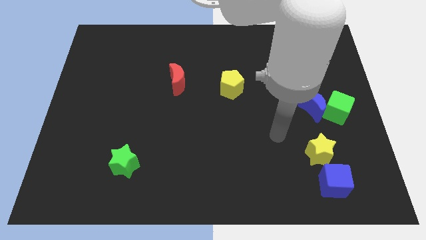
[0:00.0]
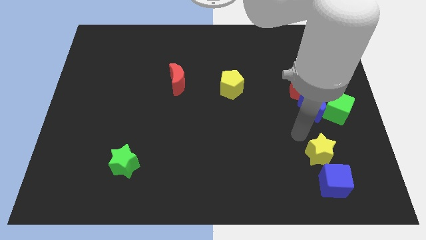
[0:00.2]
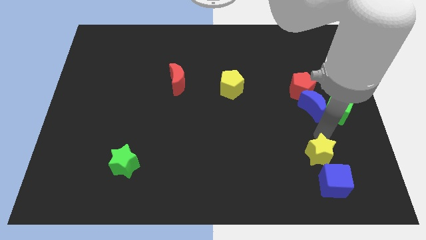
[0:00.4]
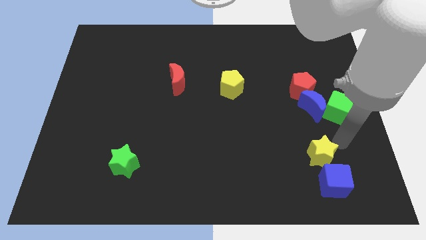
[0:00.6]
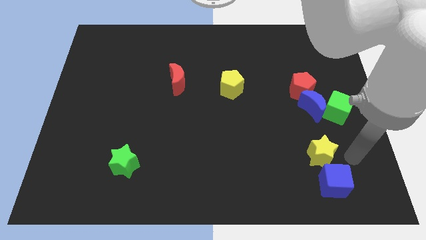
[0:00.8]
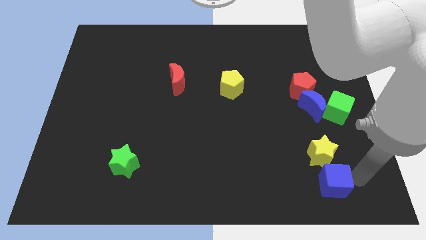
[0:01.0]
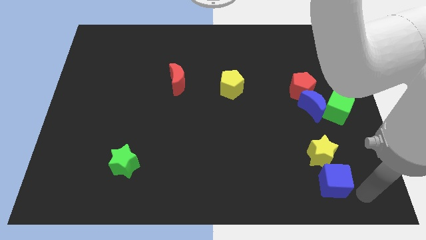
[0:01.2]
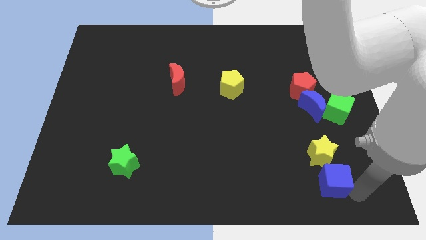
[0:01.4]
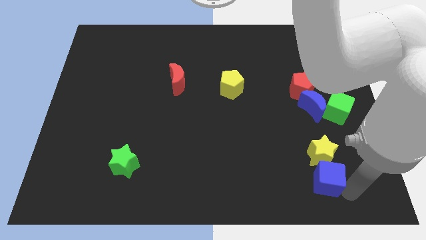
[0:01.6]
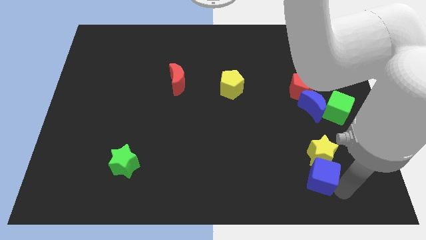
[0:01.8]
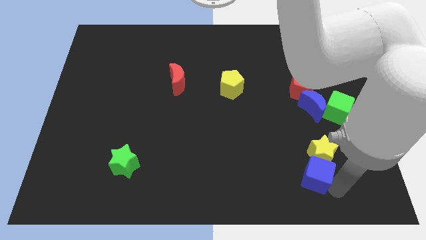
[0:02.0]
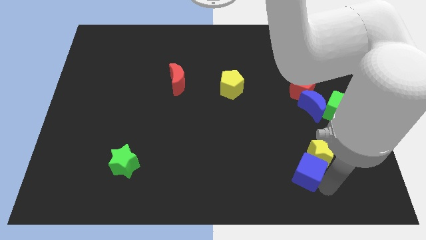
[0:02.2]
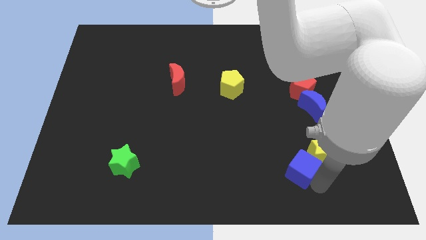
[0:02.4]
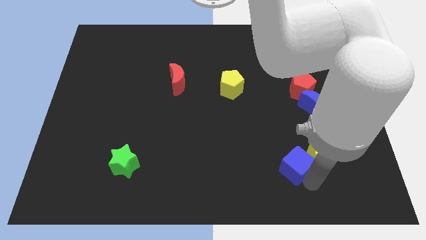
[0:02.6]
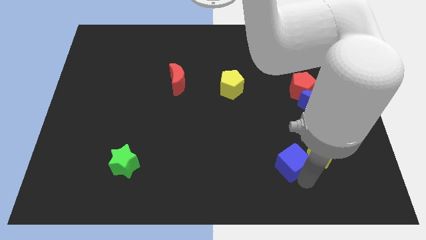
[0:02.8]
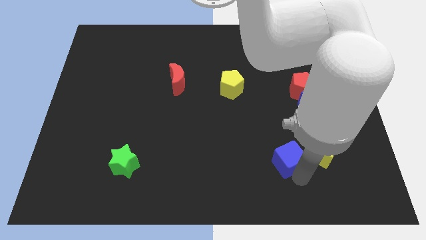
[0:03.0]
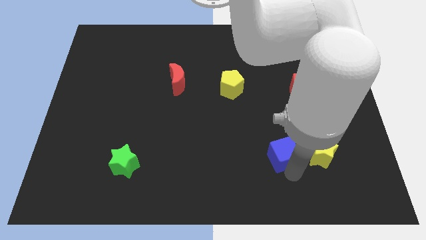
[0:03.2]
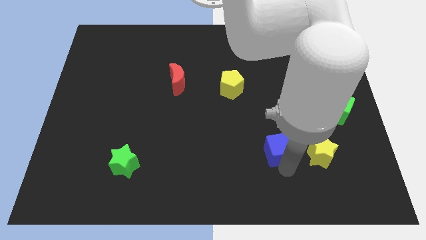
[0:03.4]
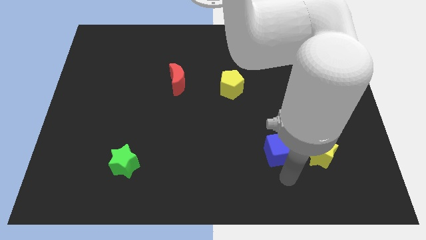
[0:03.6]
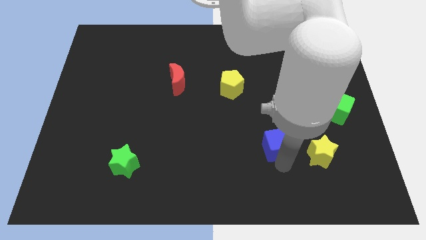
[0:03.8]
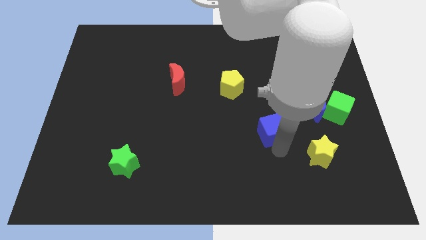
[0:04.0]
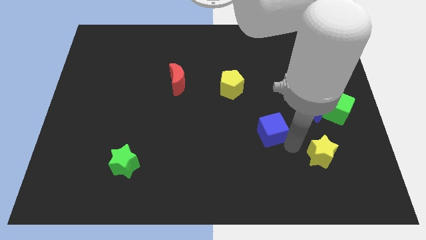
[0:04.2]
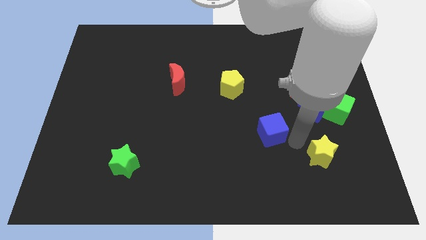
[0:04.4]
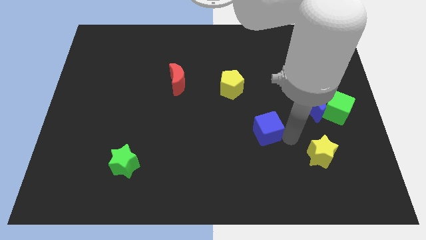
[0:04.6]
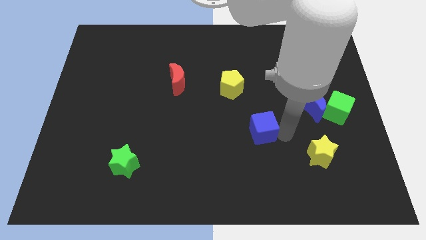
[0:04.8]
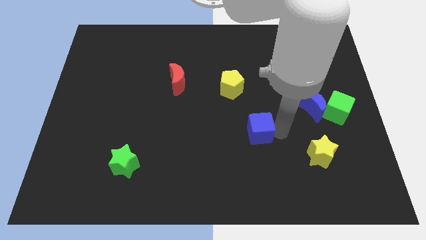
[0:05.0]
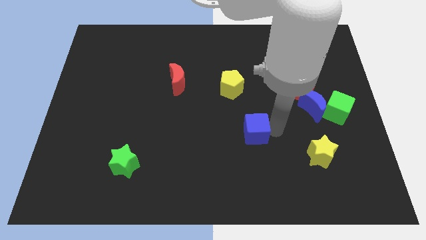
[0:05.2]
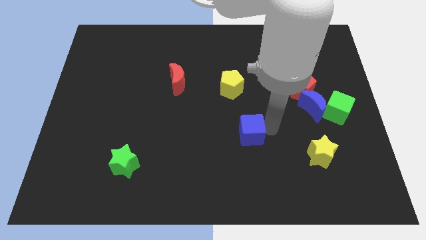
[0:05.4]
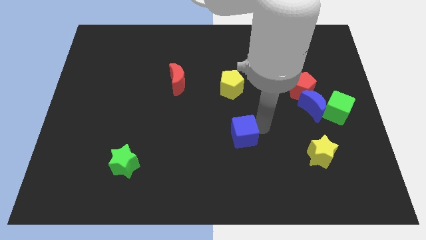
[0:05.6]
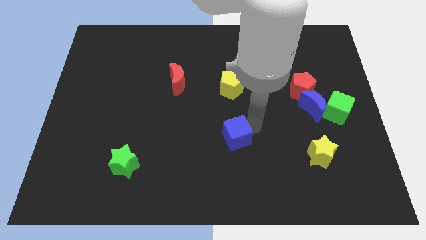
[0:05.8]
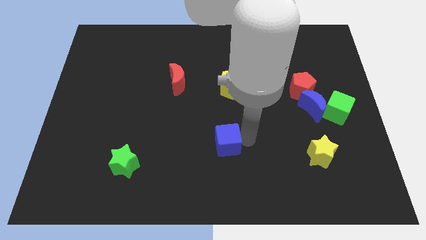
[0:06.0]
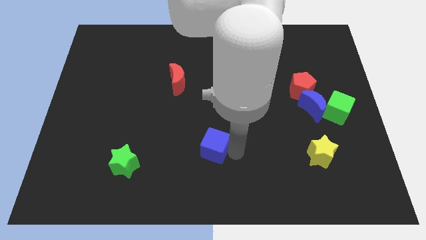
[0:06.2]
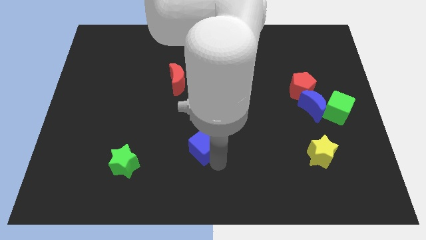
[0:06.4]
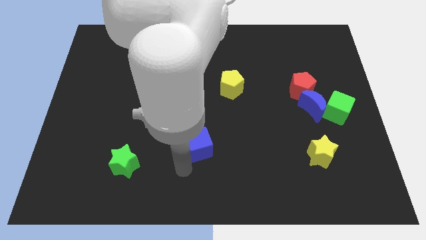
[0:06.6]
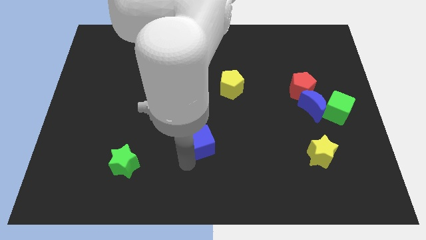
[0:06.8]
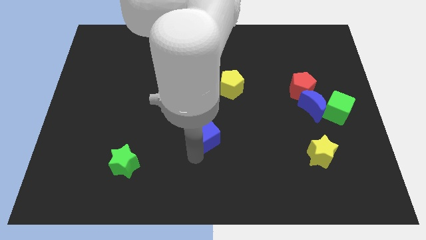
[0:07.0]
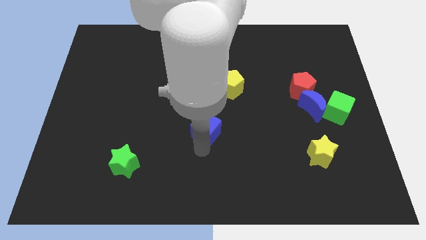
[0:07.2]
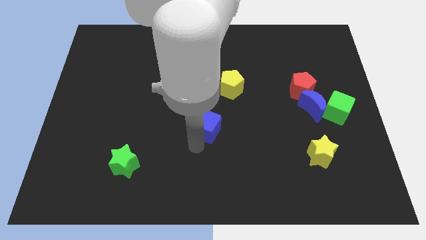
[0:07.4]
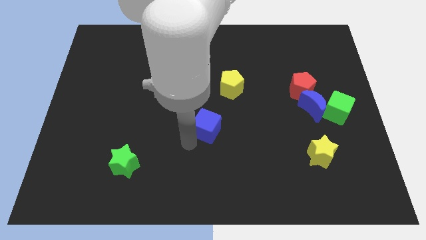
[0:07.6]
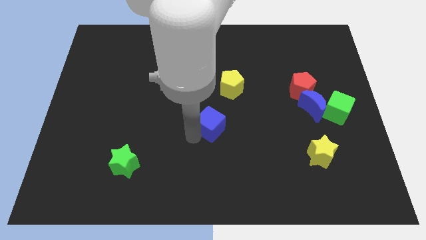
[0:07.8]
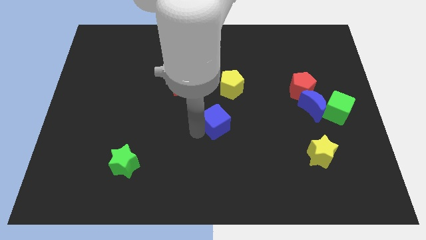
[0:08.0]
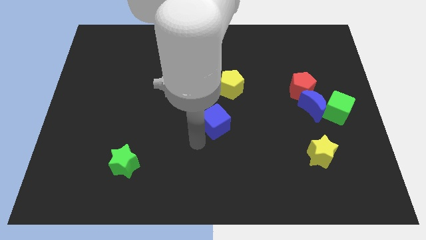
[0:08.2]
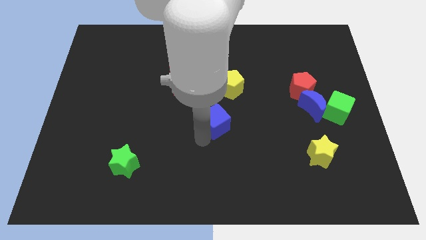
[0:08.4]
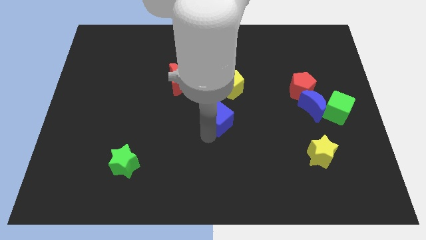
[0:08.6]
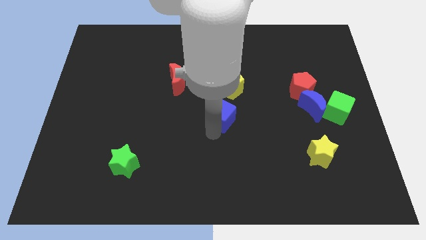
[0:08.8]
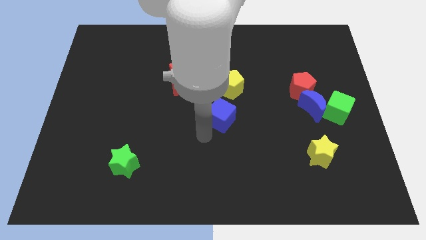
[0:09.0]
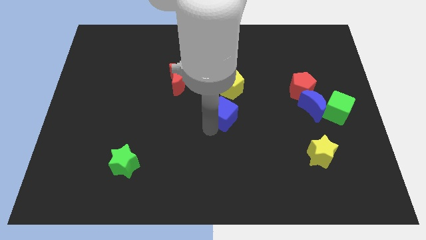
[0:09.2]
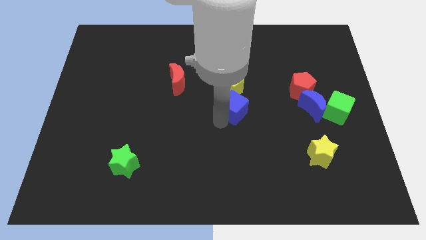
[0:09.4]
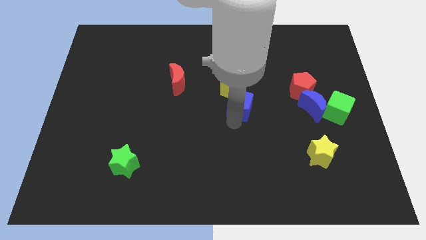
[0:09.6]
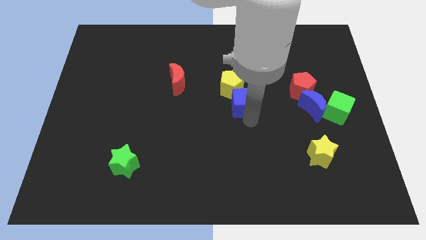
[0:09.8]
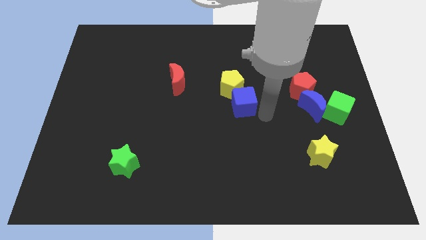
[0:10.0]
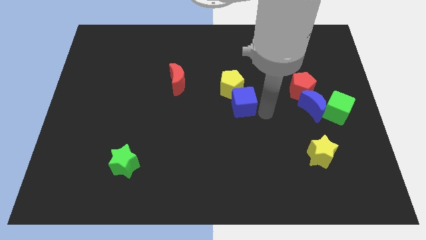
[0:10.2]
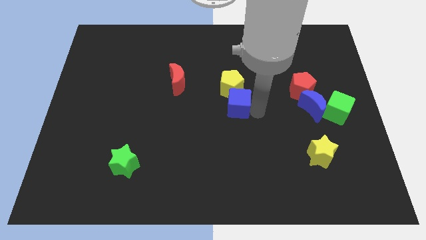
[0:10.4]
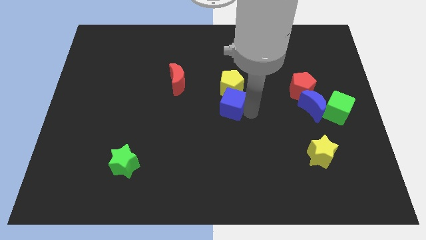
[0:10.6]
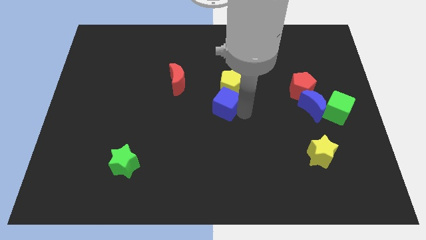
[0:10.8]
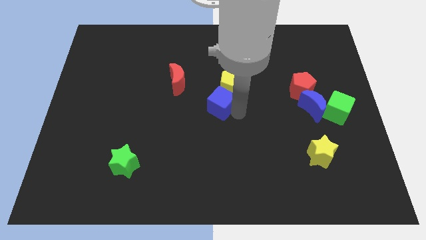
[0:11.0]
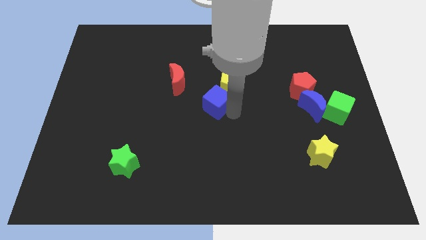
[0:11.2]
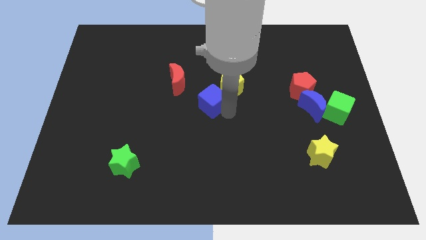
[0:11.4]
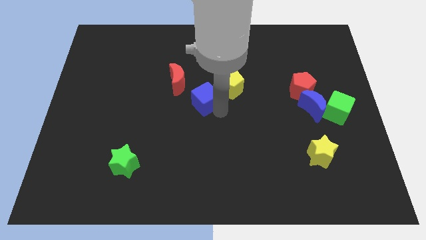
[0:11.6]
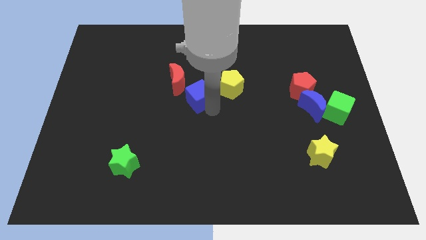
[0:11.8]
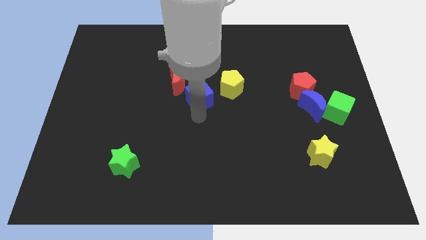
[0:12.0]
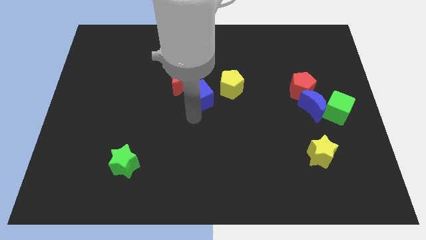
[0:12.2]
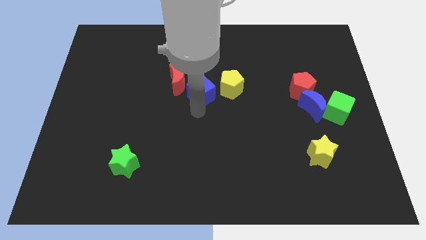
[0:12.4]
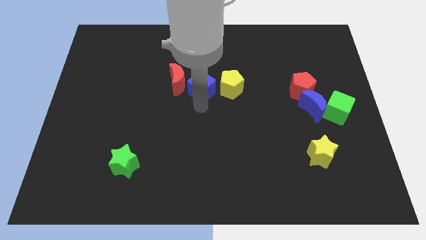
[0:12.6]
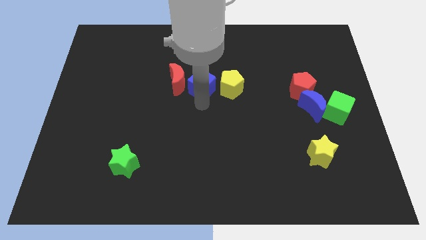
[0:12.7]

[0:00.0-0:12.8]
move the blue cube to the top left of the yellow pentagon

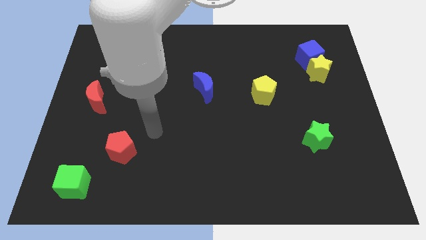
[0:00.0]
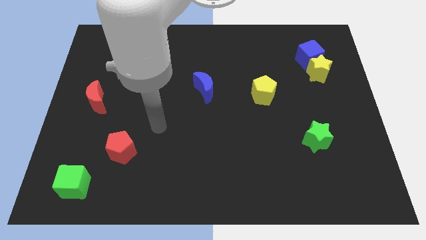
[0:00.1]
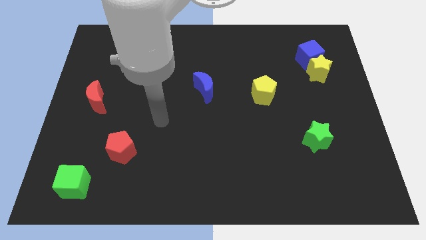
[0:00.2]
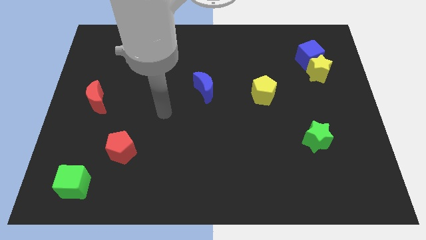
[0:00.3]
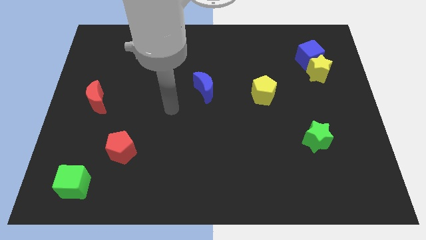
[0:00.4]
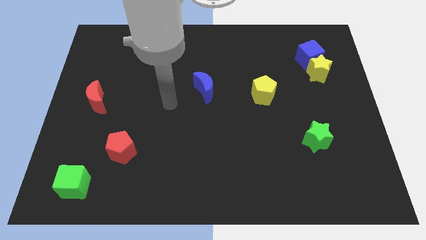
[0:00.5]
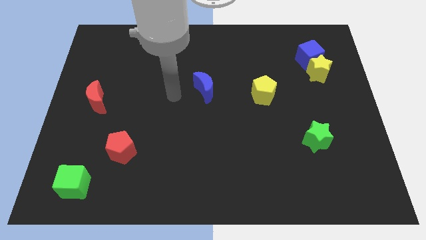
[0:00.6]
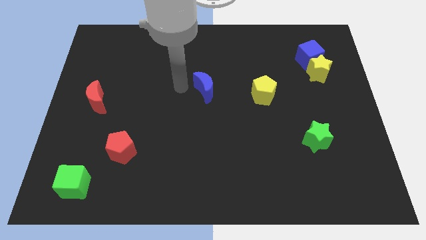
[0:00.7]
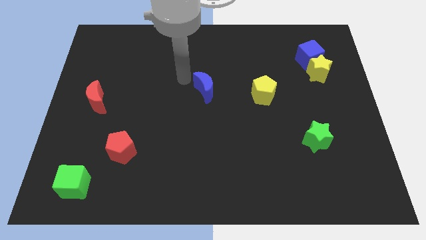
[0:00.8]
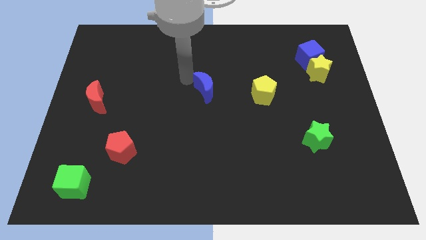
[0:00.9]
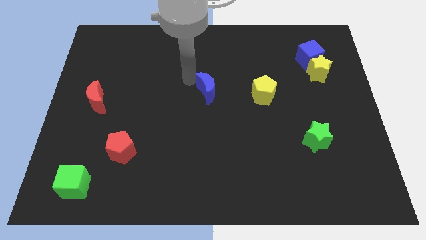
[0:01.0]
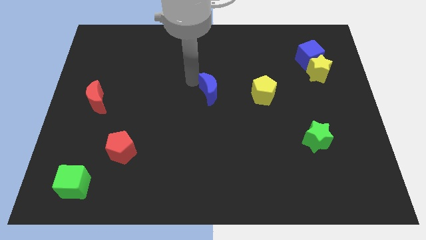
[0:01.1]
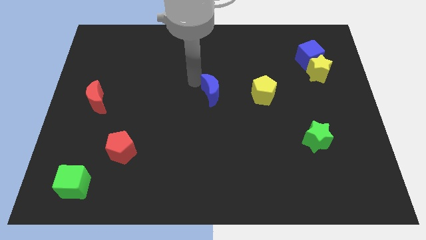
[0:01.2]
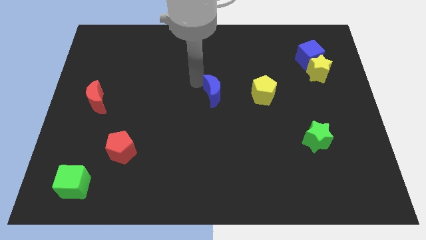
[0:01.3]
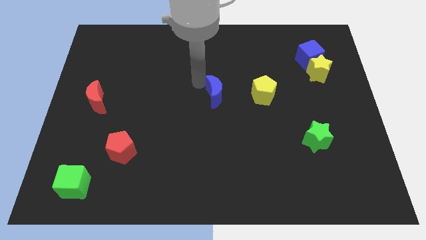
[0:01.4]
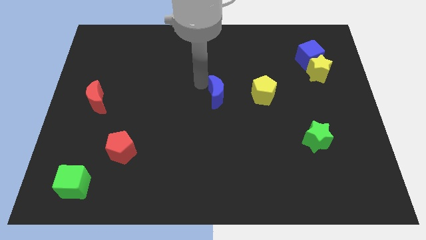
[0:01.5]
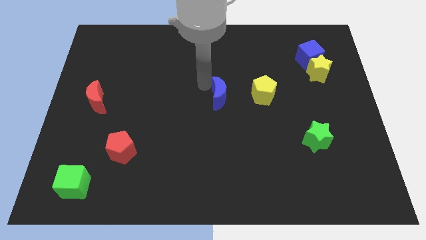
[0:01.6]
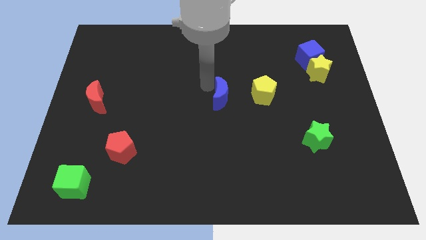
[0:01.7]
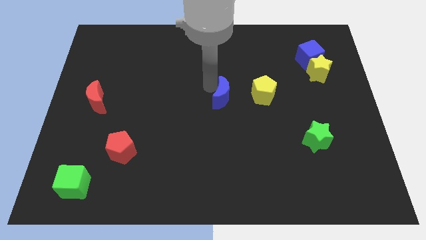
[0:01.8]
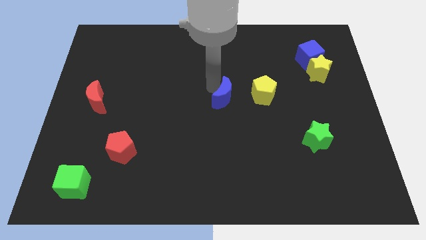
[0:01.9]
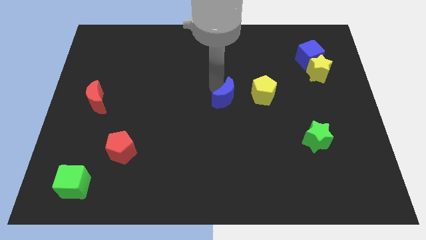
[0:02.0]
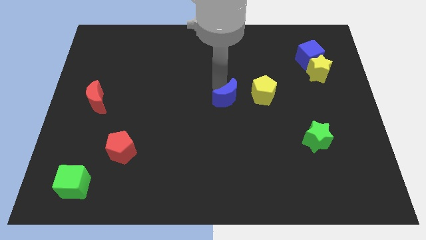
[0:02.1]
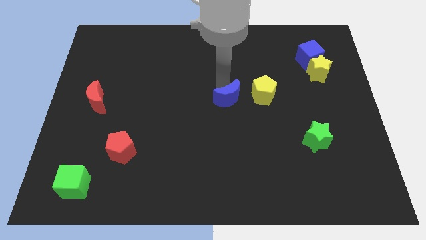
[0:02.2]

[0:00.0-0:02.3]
push the blue moon diagonally down and to the left of the yellow pentagon
